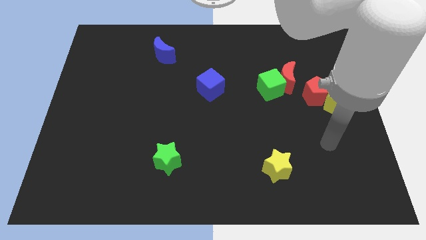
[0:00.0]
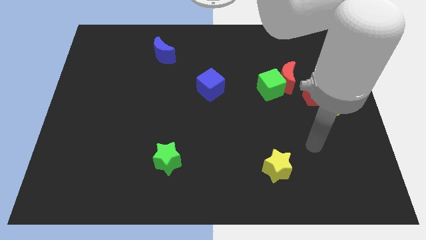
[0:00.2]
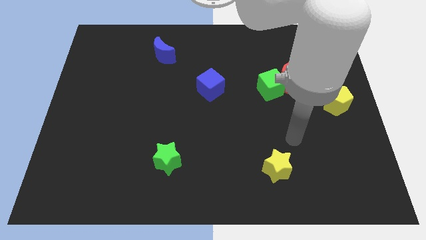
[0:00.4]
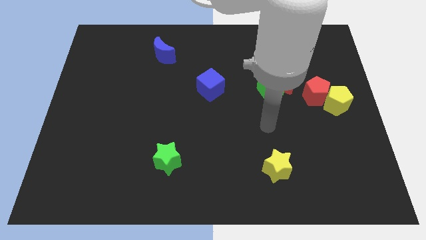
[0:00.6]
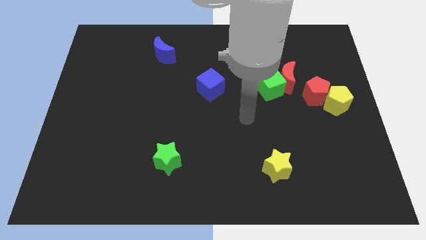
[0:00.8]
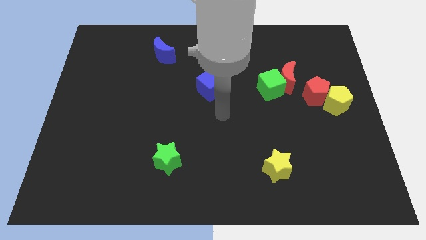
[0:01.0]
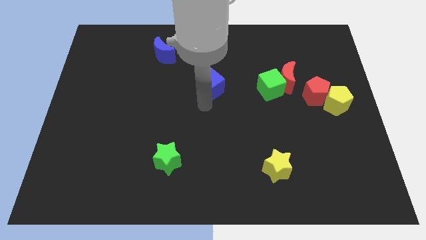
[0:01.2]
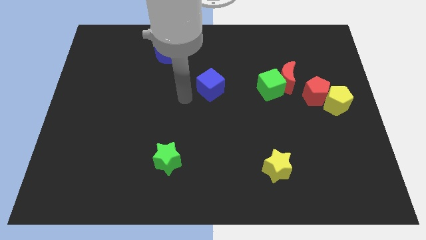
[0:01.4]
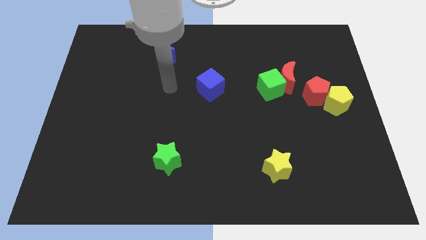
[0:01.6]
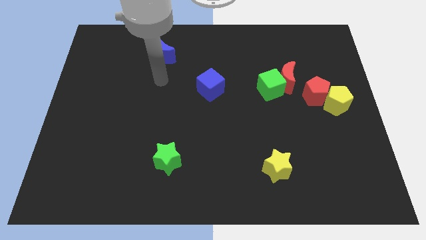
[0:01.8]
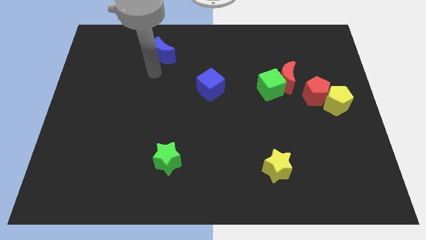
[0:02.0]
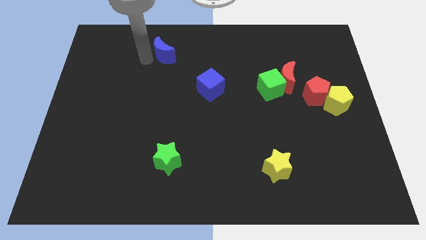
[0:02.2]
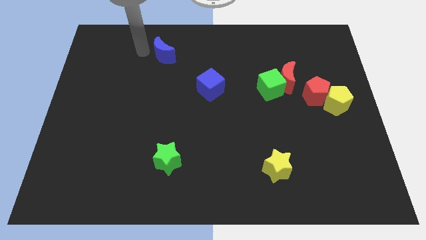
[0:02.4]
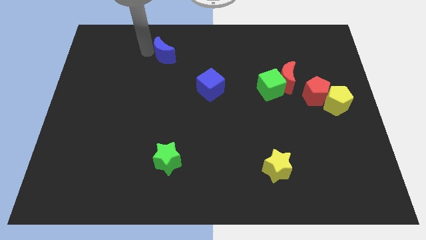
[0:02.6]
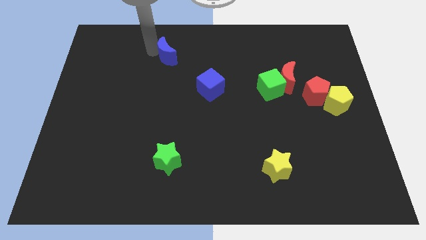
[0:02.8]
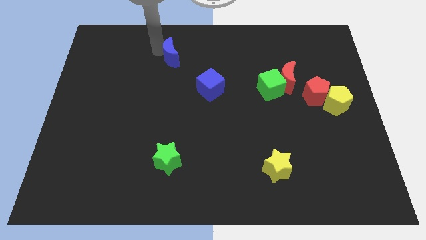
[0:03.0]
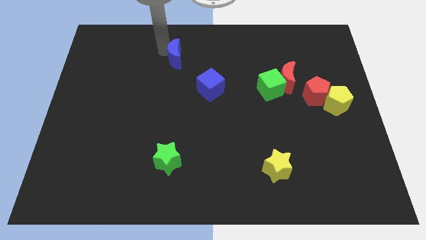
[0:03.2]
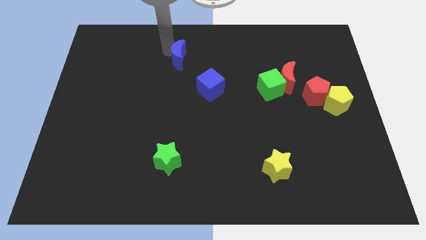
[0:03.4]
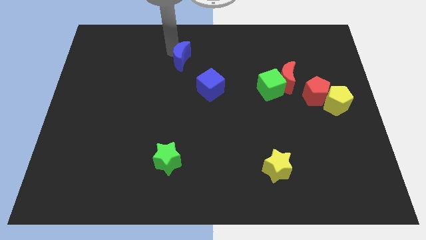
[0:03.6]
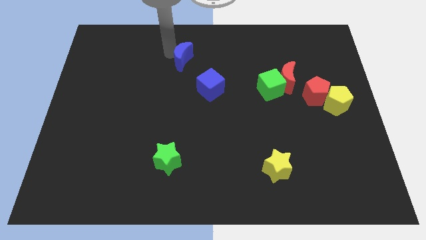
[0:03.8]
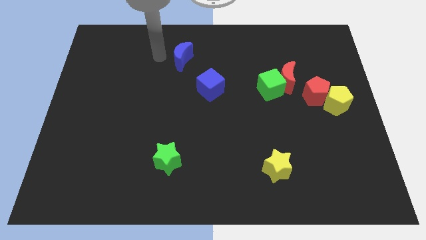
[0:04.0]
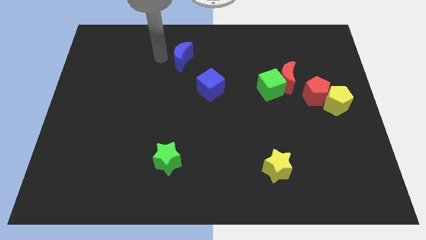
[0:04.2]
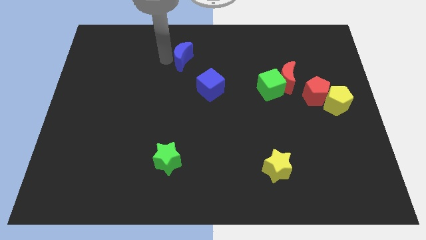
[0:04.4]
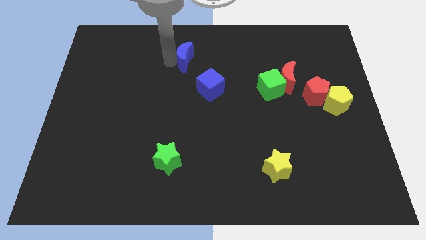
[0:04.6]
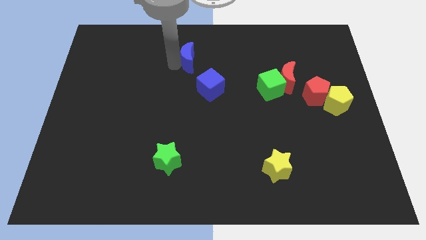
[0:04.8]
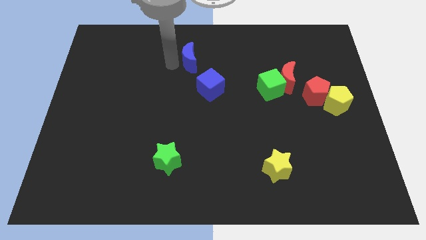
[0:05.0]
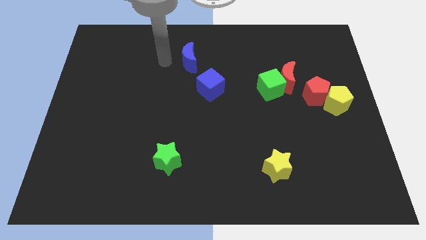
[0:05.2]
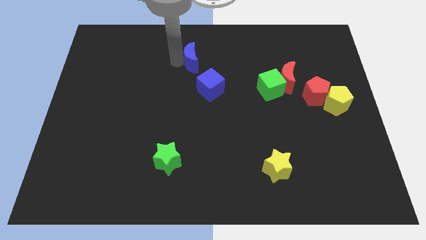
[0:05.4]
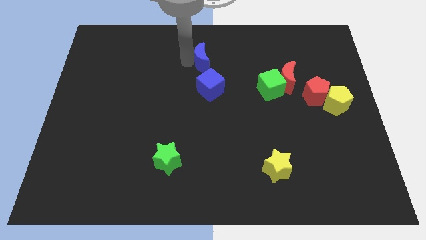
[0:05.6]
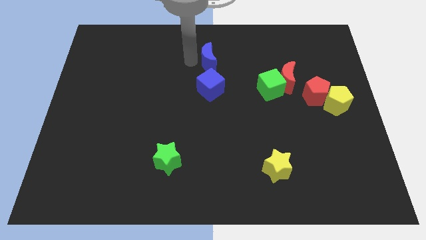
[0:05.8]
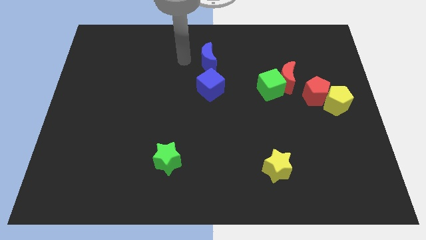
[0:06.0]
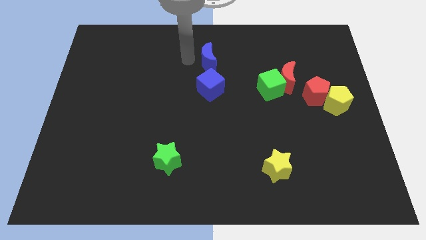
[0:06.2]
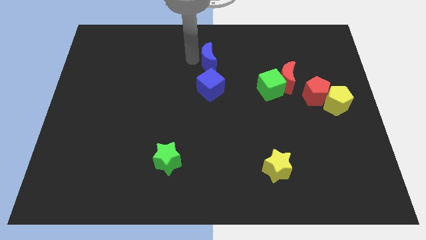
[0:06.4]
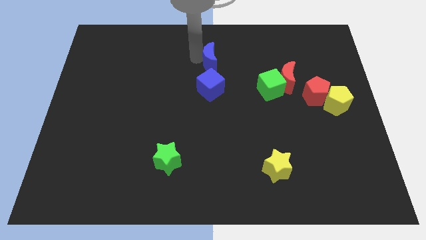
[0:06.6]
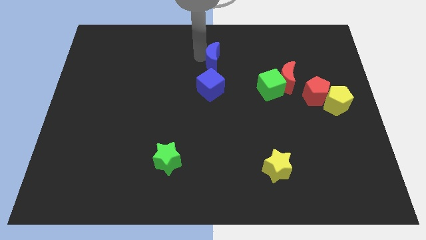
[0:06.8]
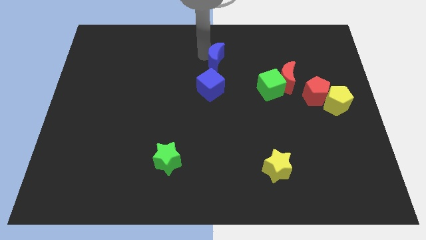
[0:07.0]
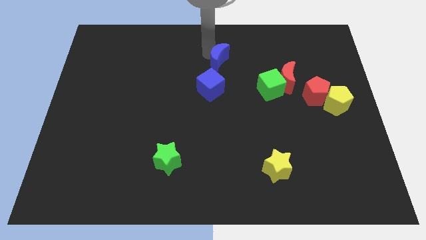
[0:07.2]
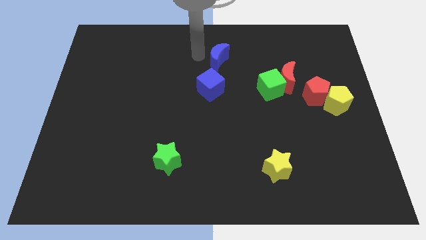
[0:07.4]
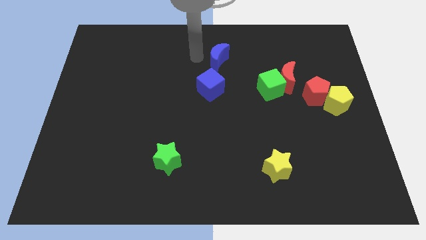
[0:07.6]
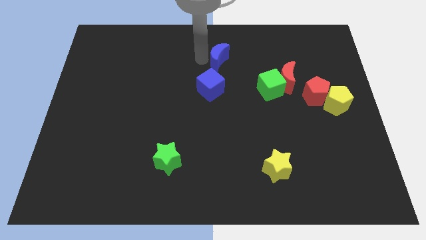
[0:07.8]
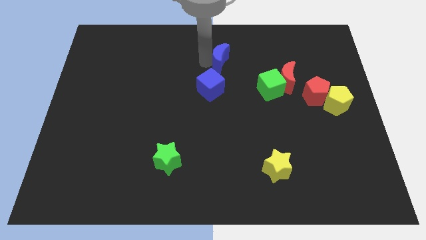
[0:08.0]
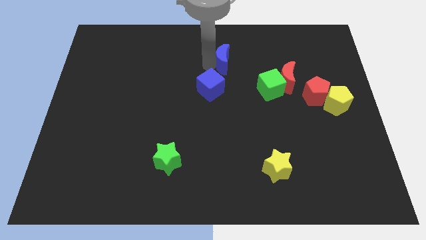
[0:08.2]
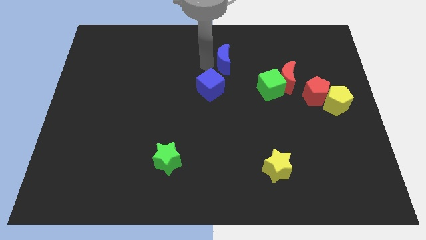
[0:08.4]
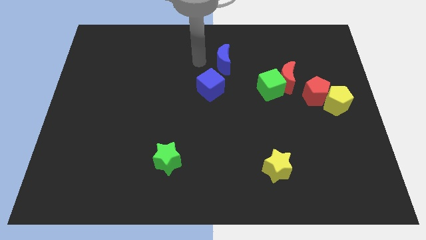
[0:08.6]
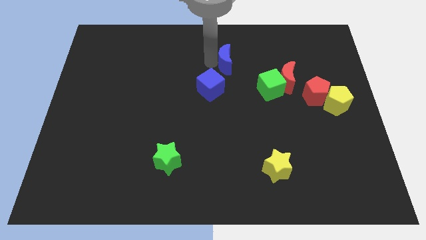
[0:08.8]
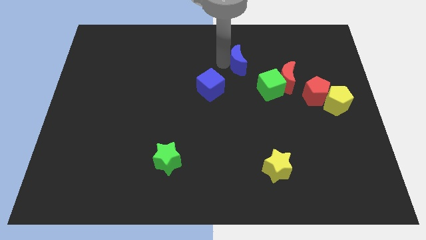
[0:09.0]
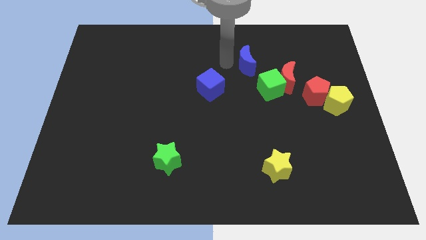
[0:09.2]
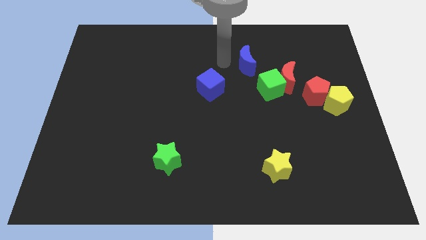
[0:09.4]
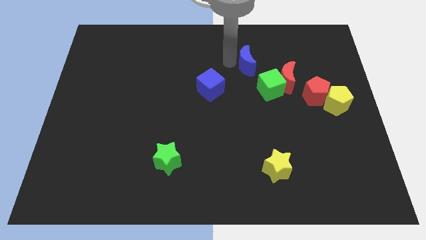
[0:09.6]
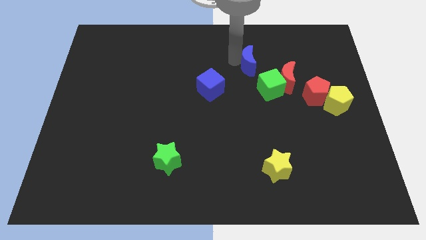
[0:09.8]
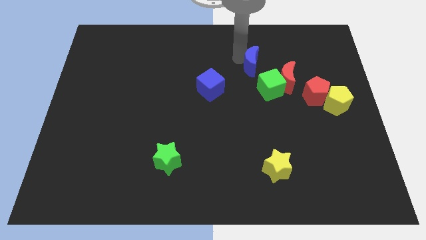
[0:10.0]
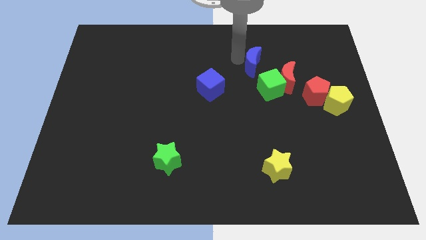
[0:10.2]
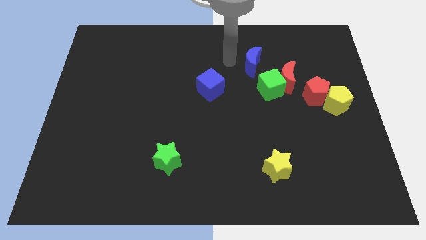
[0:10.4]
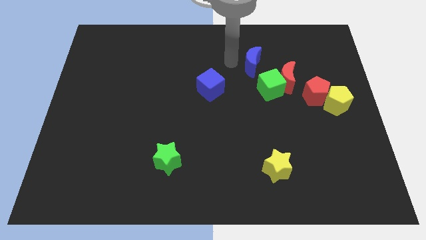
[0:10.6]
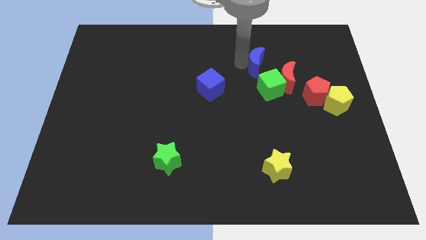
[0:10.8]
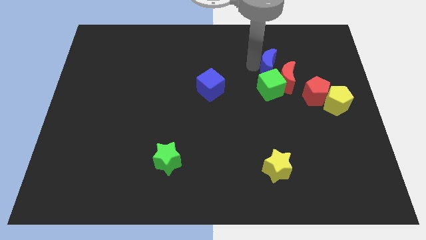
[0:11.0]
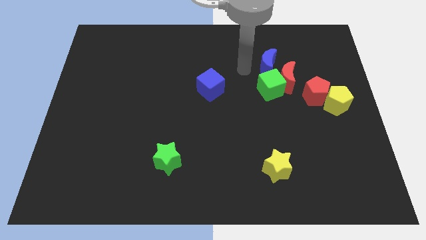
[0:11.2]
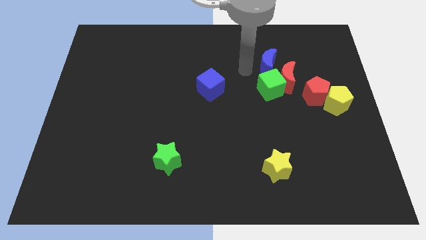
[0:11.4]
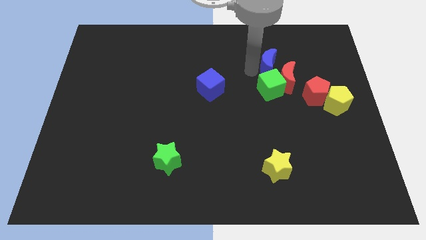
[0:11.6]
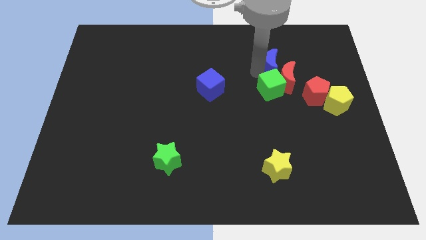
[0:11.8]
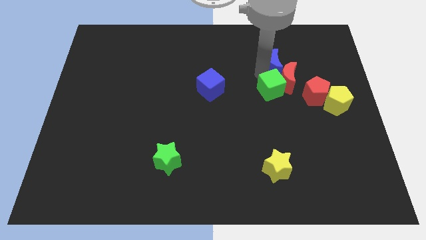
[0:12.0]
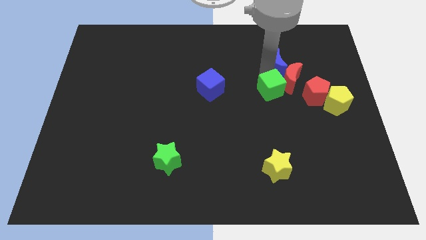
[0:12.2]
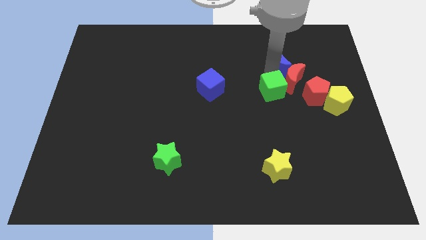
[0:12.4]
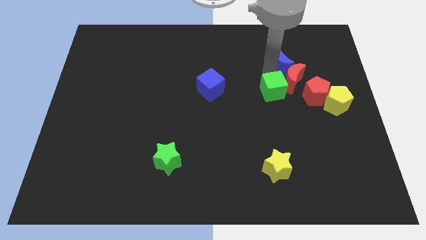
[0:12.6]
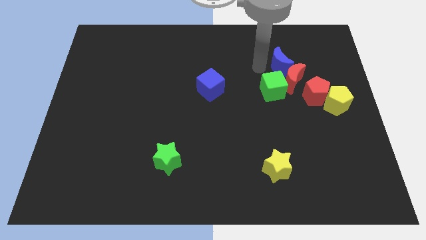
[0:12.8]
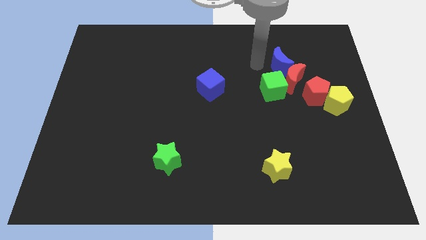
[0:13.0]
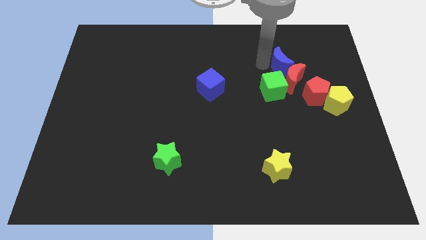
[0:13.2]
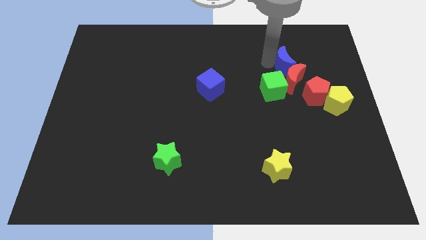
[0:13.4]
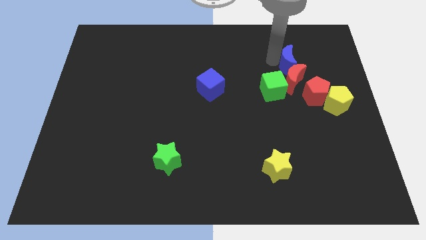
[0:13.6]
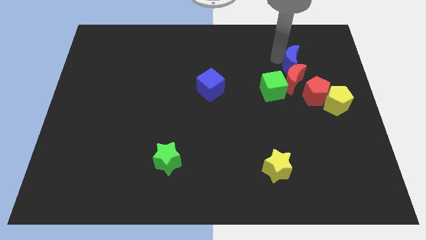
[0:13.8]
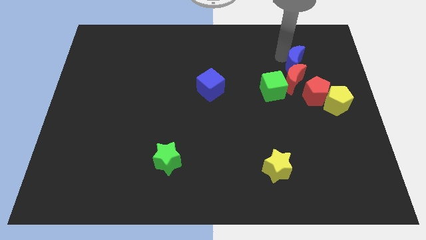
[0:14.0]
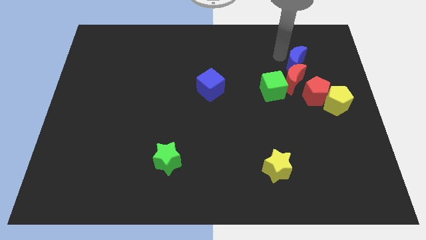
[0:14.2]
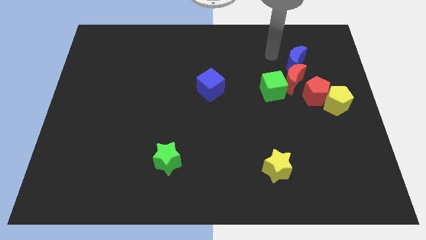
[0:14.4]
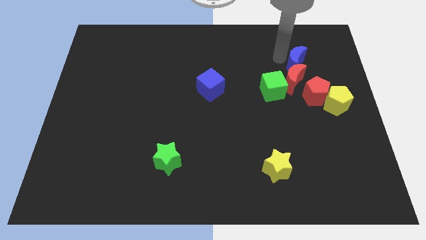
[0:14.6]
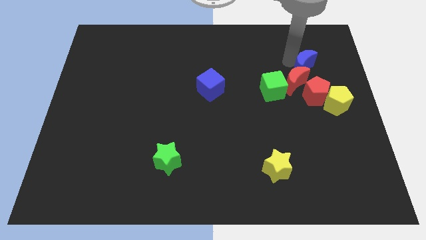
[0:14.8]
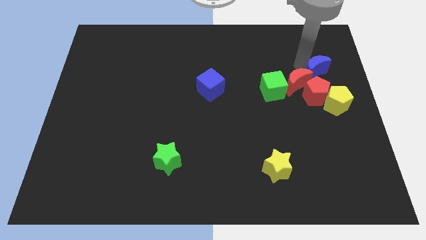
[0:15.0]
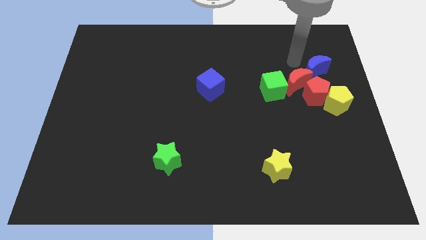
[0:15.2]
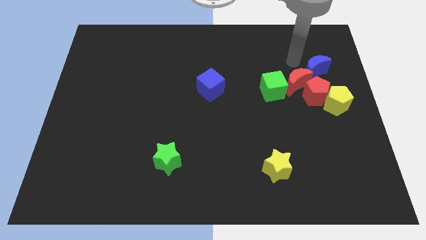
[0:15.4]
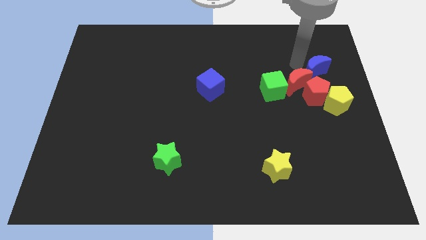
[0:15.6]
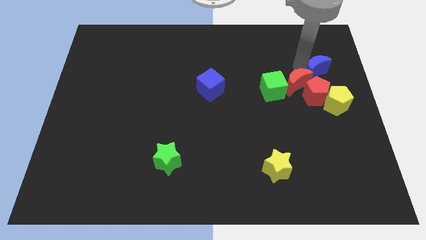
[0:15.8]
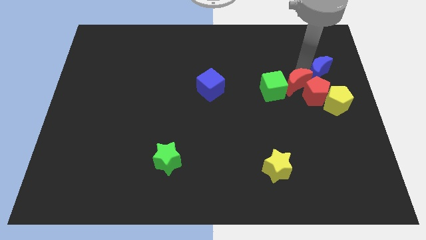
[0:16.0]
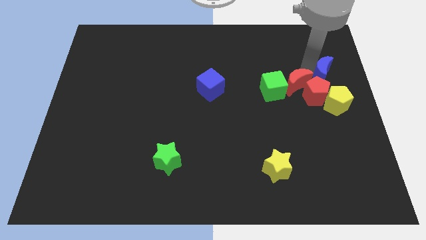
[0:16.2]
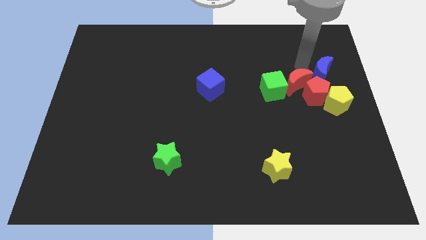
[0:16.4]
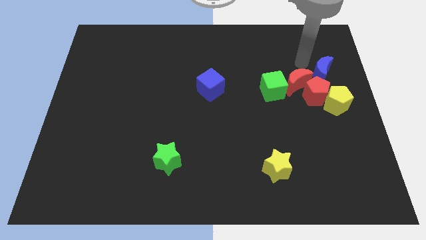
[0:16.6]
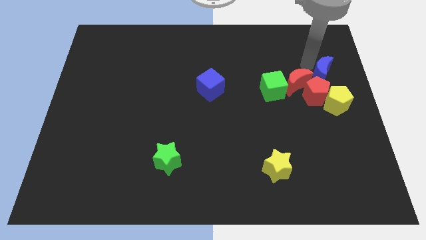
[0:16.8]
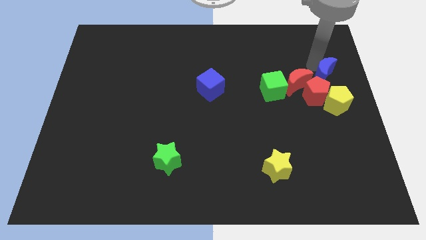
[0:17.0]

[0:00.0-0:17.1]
push the blue moon to the right side of the board
